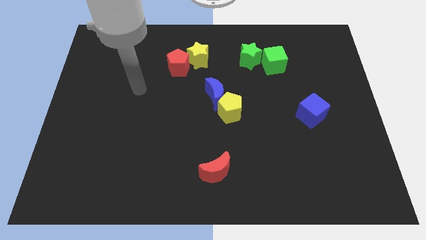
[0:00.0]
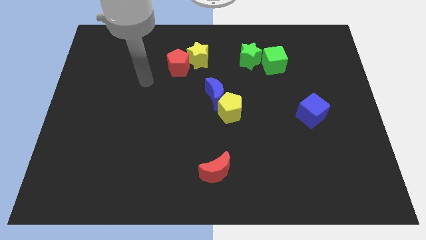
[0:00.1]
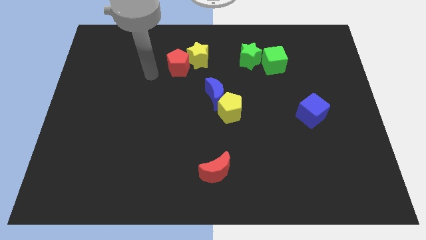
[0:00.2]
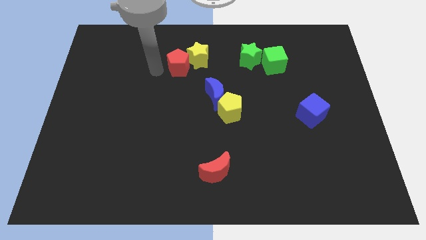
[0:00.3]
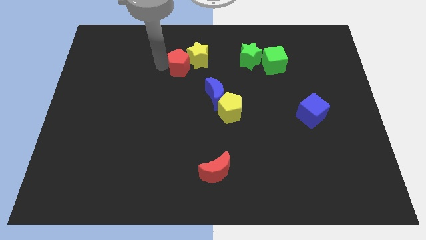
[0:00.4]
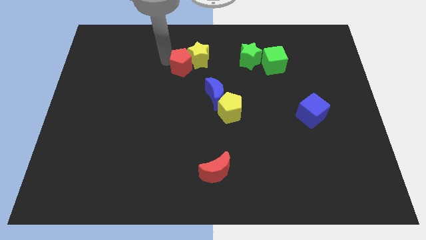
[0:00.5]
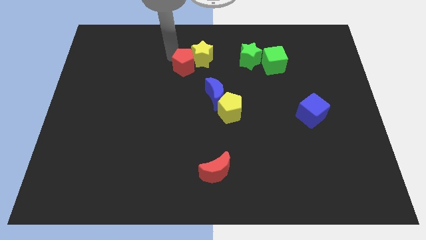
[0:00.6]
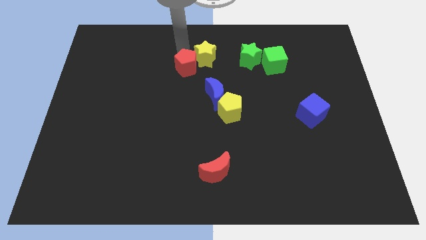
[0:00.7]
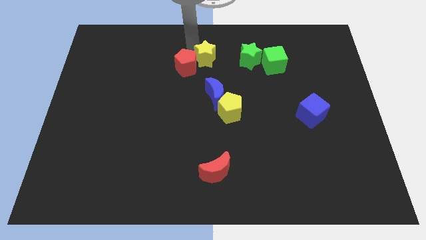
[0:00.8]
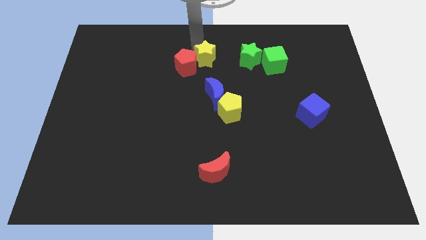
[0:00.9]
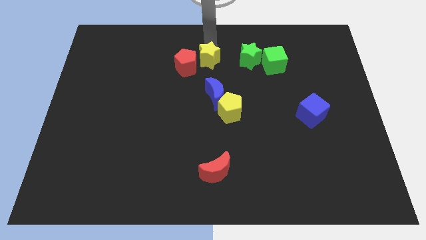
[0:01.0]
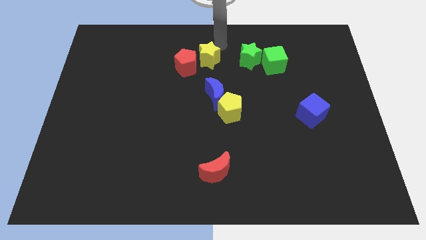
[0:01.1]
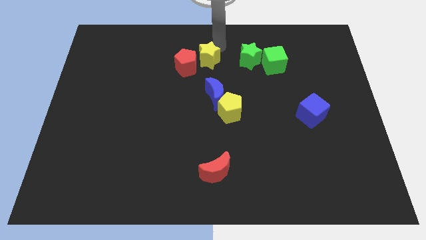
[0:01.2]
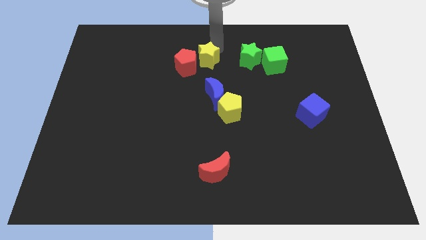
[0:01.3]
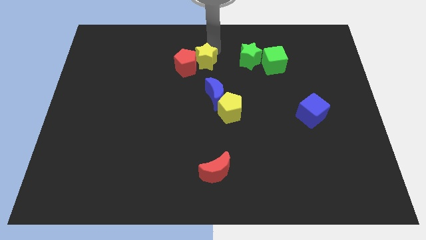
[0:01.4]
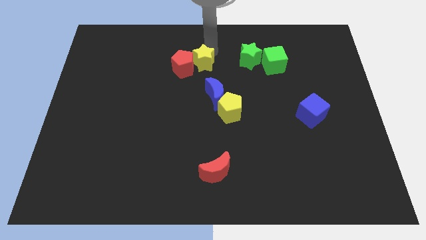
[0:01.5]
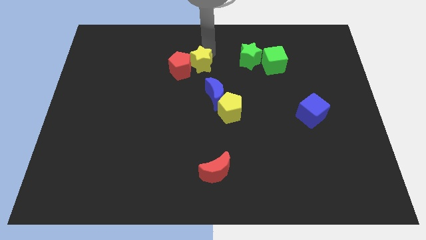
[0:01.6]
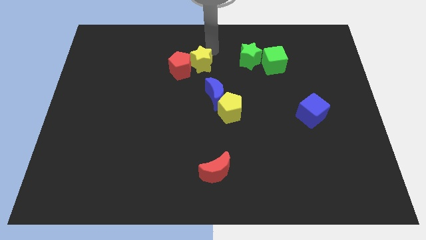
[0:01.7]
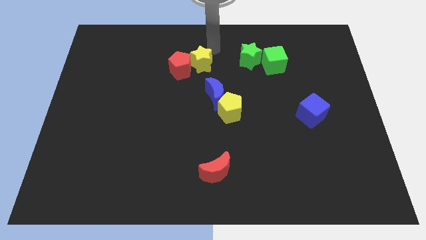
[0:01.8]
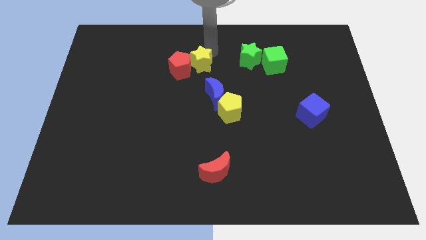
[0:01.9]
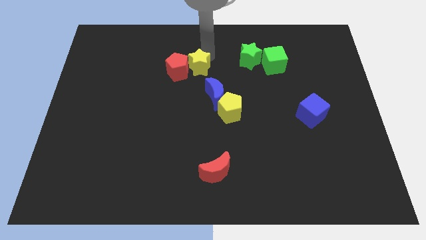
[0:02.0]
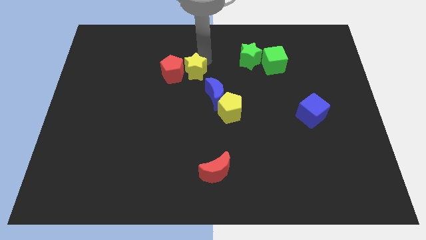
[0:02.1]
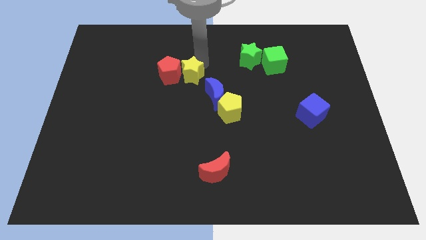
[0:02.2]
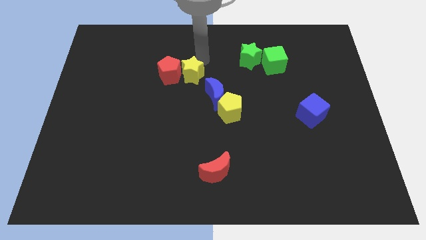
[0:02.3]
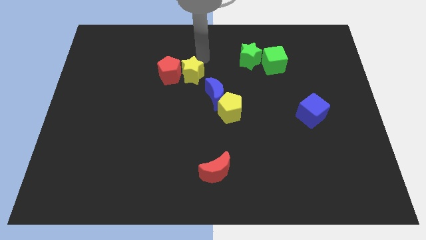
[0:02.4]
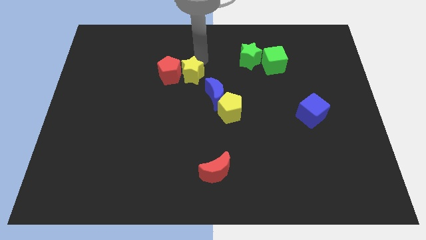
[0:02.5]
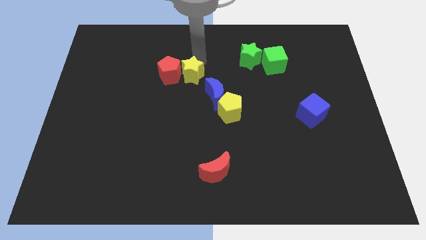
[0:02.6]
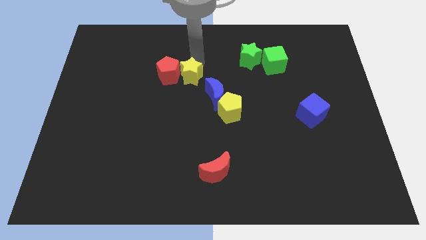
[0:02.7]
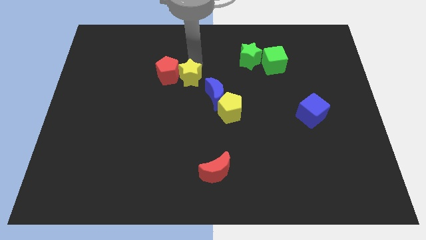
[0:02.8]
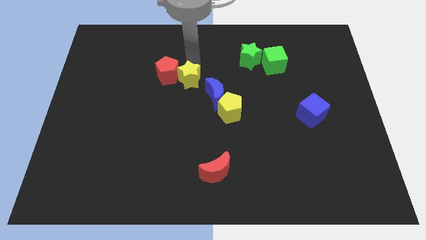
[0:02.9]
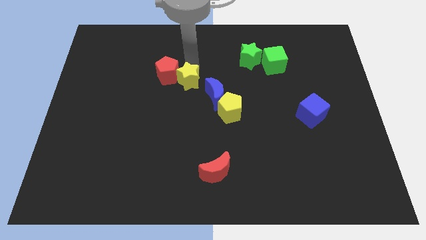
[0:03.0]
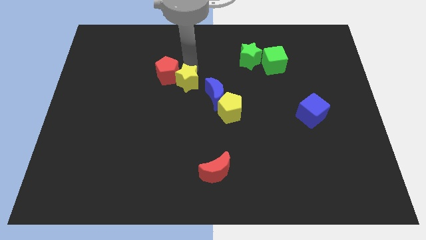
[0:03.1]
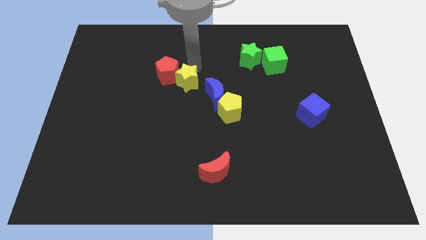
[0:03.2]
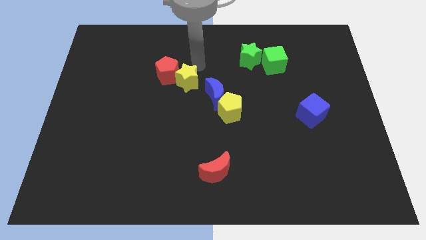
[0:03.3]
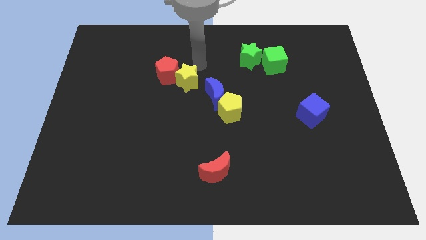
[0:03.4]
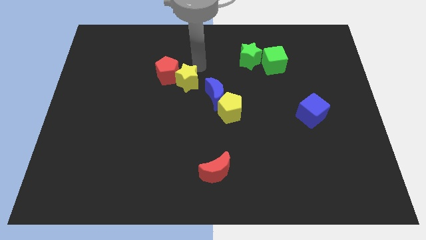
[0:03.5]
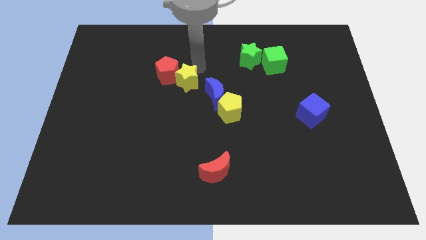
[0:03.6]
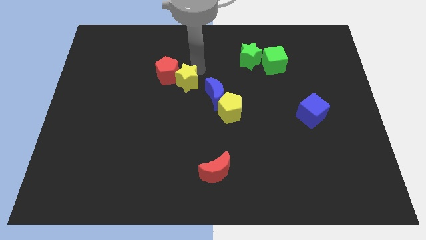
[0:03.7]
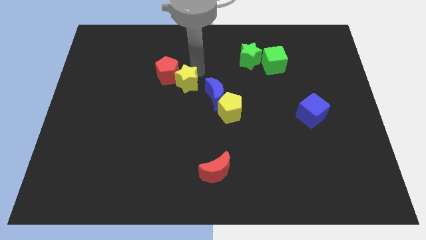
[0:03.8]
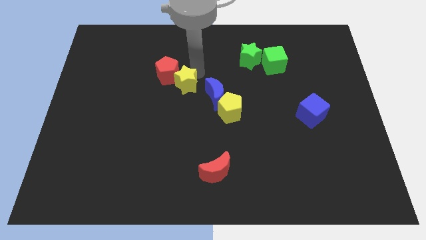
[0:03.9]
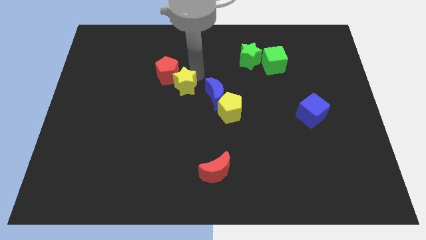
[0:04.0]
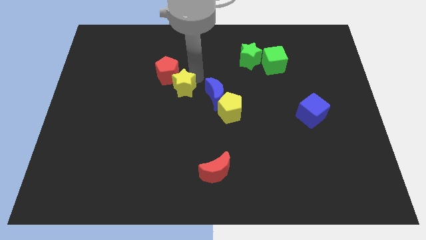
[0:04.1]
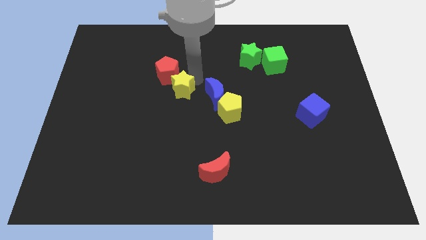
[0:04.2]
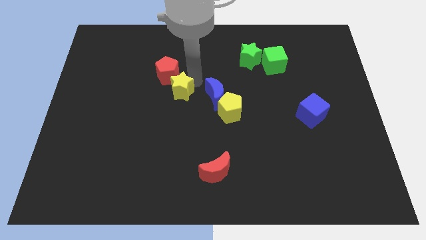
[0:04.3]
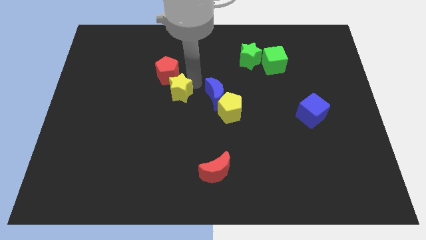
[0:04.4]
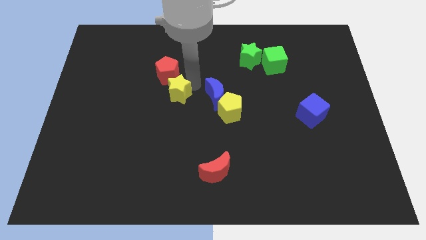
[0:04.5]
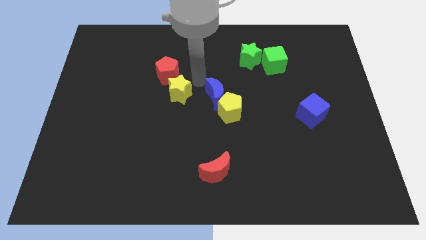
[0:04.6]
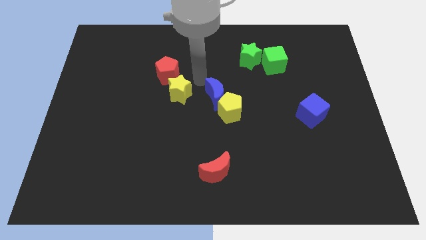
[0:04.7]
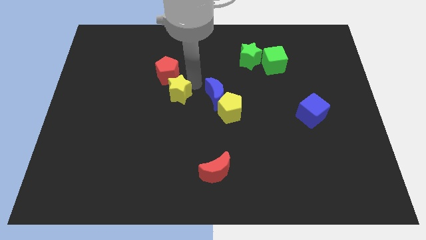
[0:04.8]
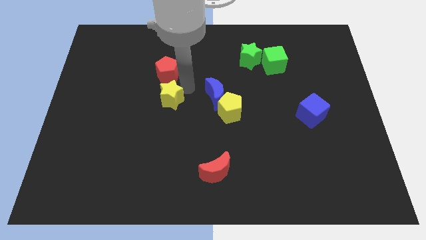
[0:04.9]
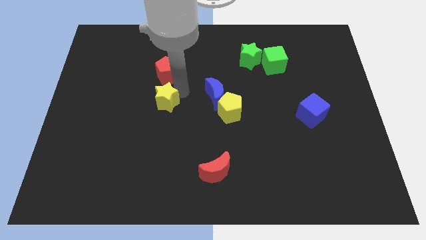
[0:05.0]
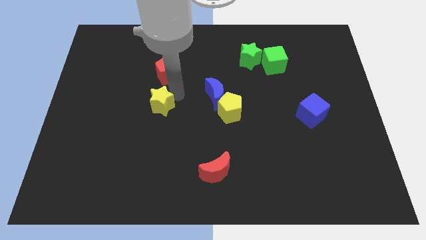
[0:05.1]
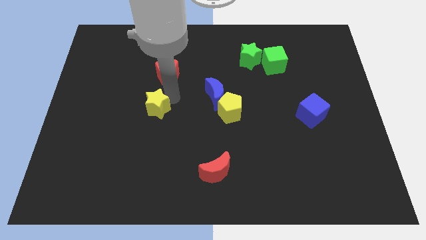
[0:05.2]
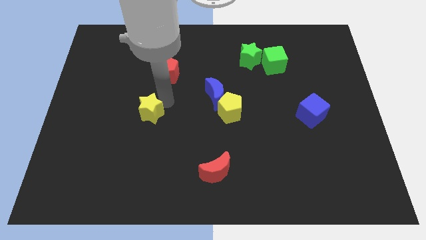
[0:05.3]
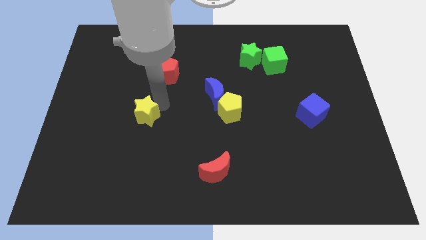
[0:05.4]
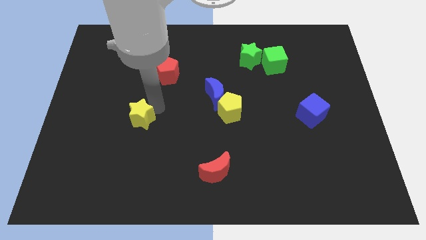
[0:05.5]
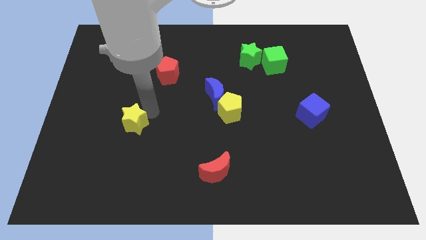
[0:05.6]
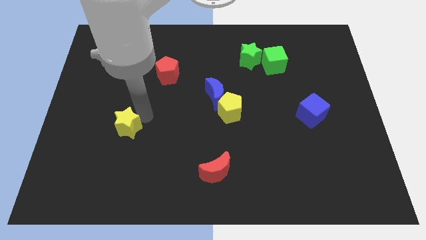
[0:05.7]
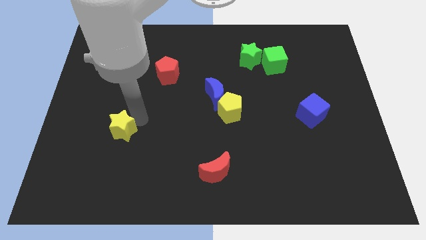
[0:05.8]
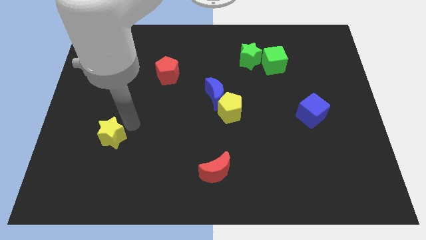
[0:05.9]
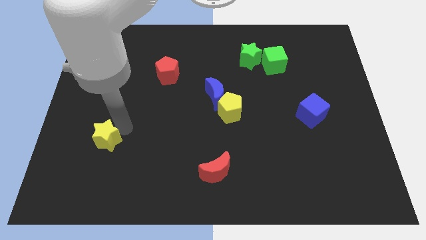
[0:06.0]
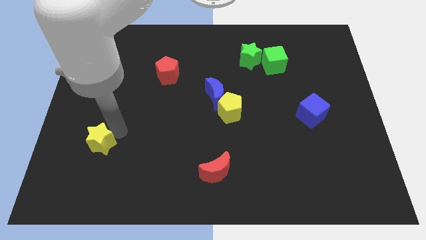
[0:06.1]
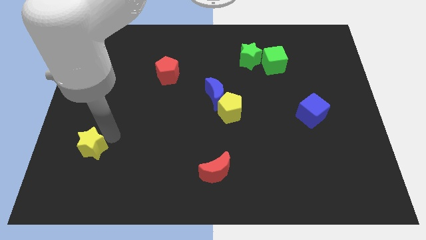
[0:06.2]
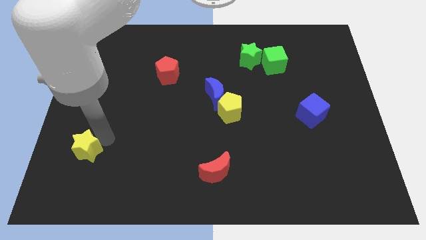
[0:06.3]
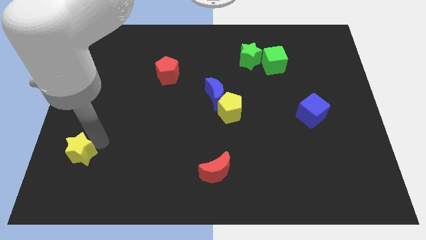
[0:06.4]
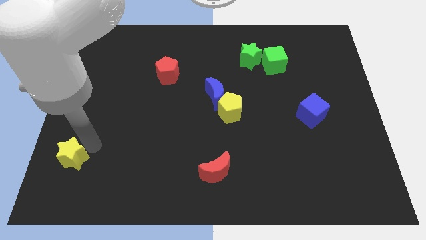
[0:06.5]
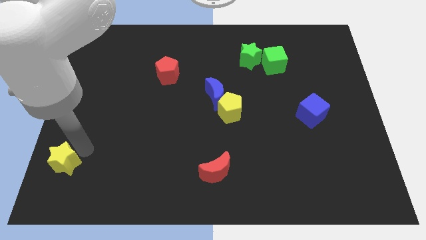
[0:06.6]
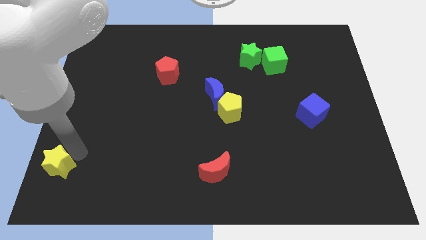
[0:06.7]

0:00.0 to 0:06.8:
put the yellow star to the bottom left corner
